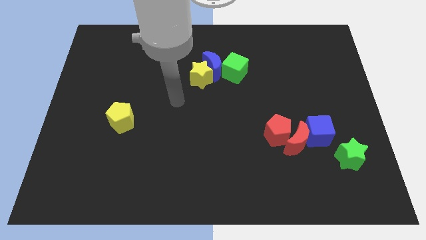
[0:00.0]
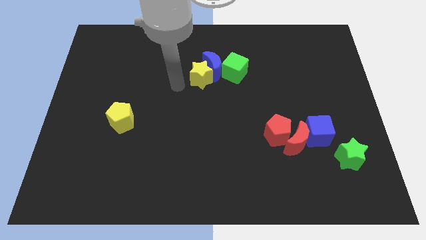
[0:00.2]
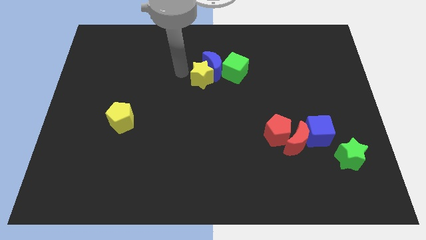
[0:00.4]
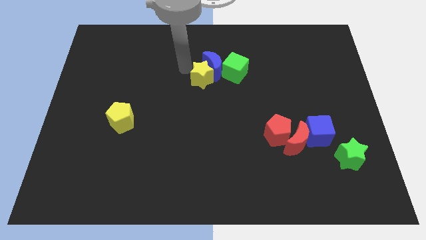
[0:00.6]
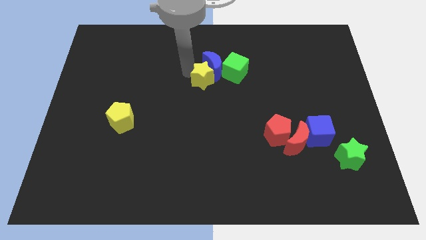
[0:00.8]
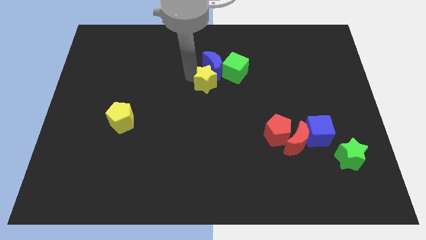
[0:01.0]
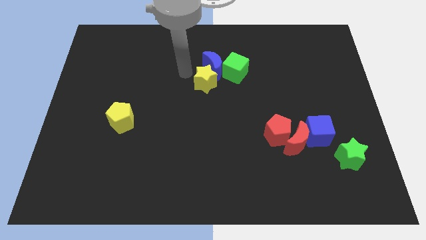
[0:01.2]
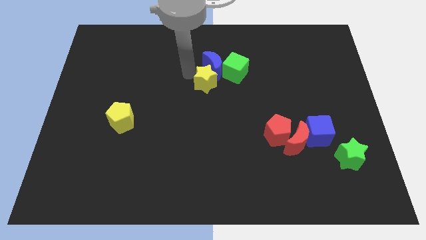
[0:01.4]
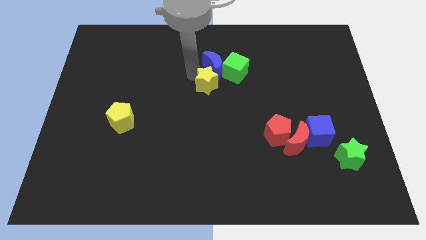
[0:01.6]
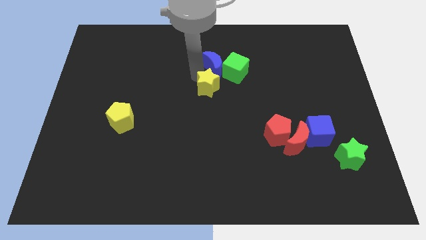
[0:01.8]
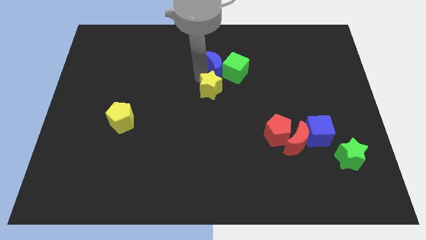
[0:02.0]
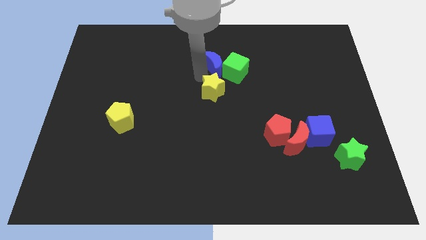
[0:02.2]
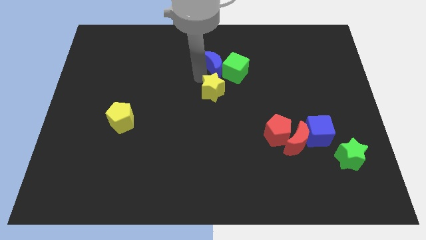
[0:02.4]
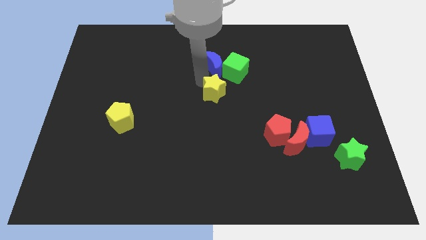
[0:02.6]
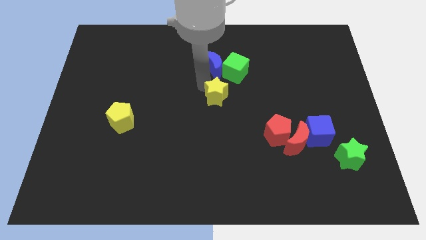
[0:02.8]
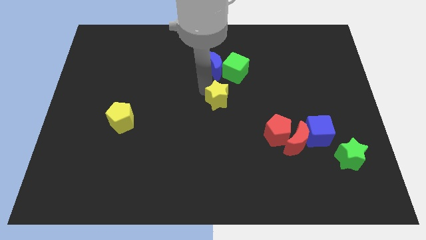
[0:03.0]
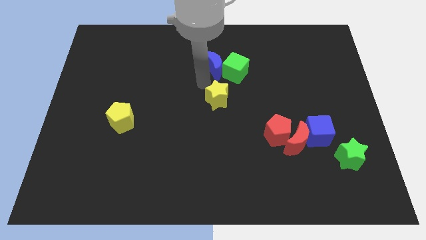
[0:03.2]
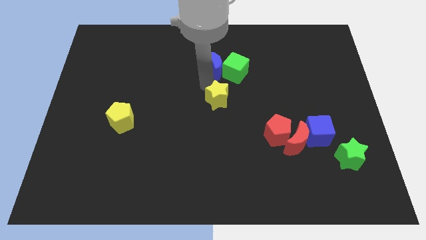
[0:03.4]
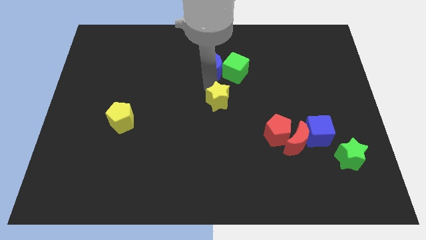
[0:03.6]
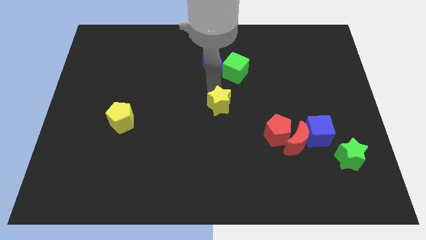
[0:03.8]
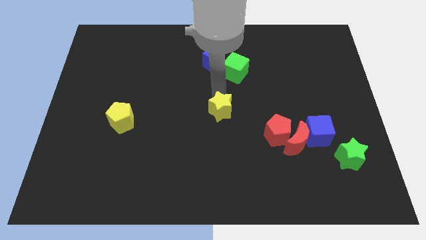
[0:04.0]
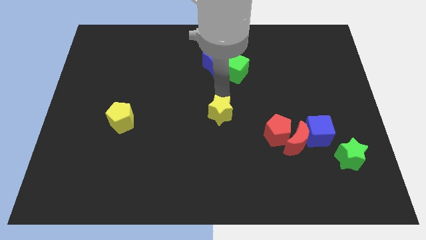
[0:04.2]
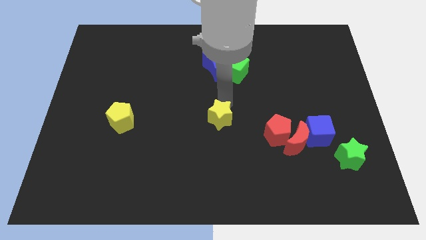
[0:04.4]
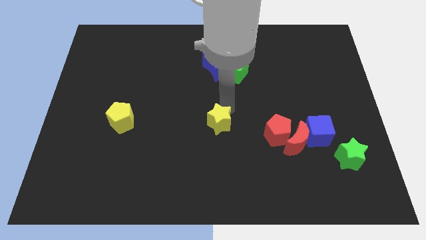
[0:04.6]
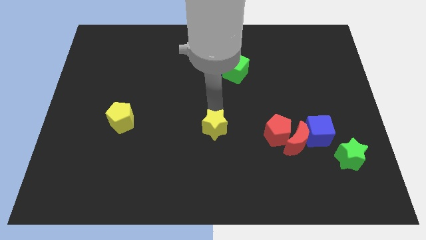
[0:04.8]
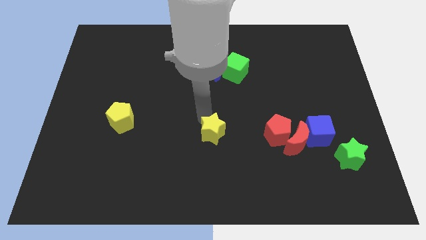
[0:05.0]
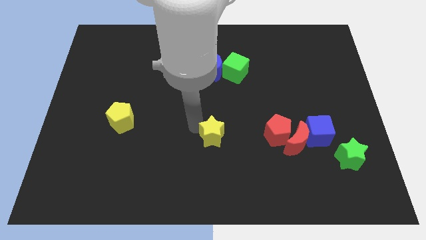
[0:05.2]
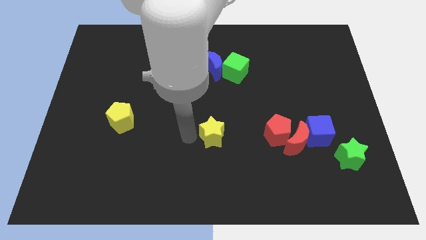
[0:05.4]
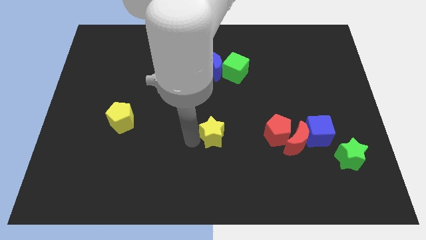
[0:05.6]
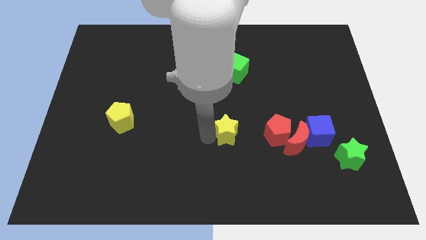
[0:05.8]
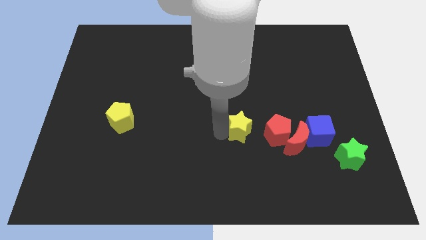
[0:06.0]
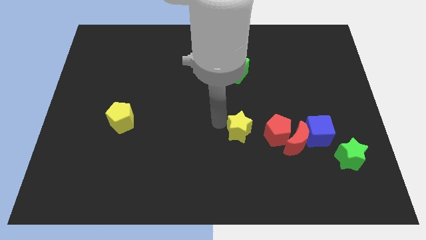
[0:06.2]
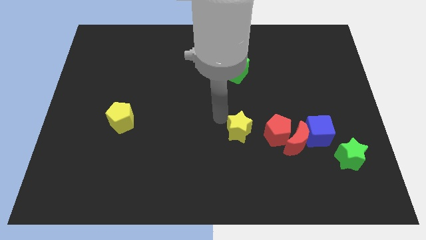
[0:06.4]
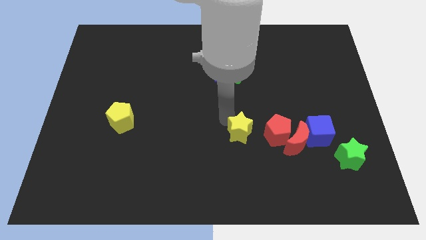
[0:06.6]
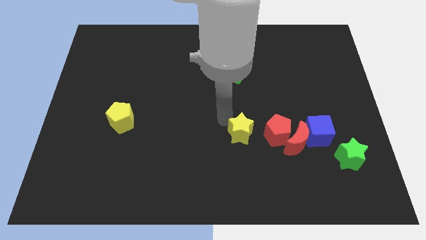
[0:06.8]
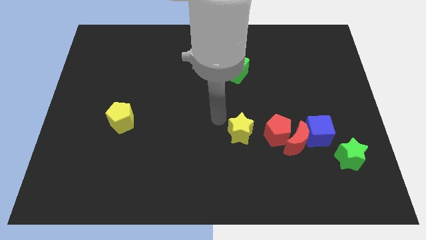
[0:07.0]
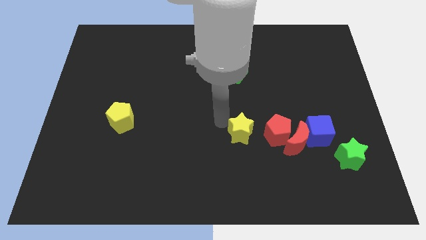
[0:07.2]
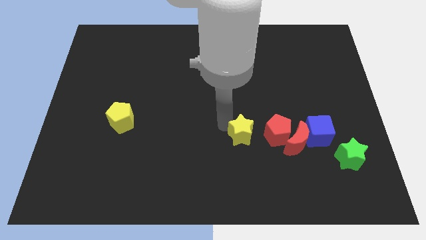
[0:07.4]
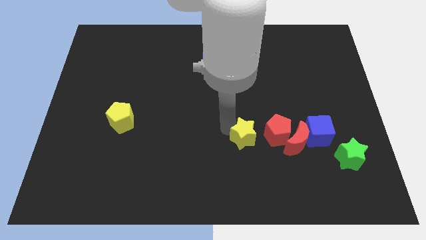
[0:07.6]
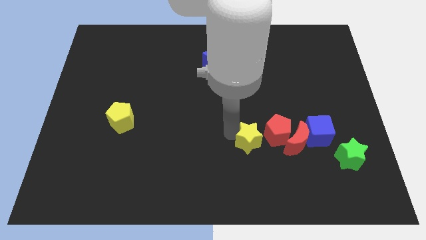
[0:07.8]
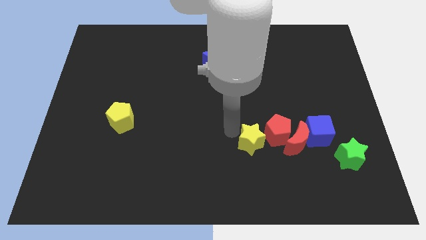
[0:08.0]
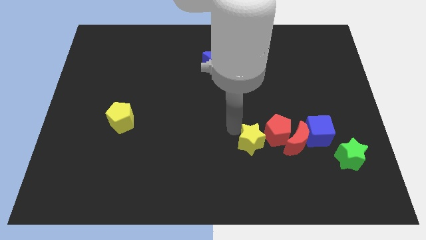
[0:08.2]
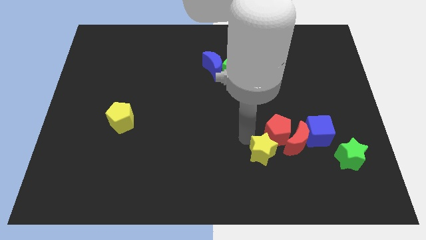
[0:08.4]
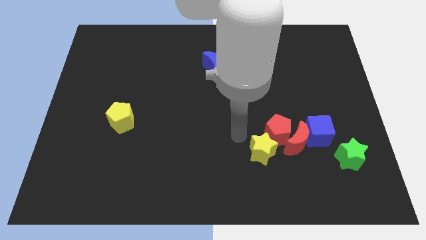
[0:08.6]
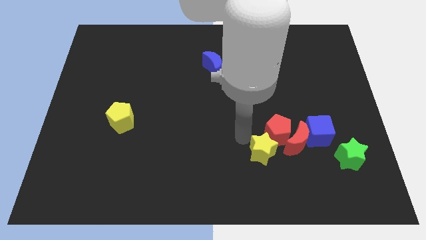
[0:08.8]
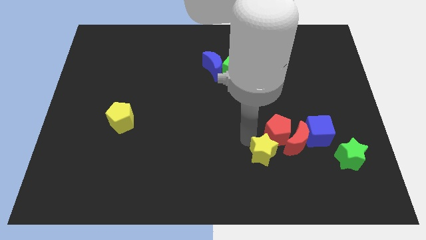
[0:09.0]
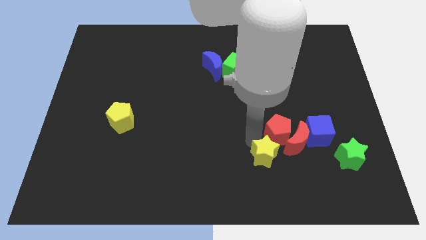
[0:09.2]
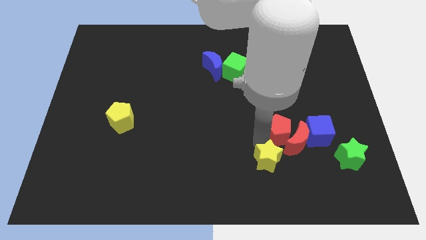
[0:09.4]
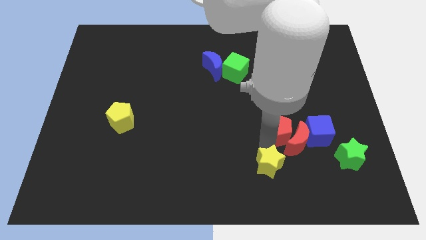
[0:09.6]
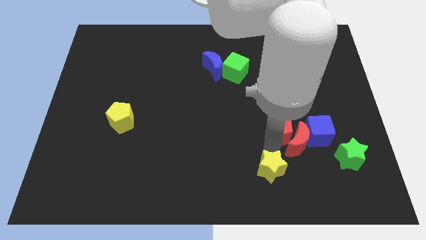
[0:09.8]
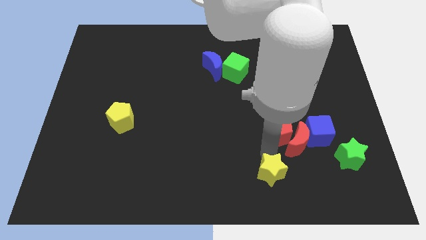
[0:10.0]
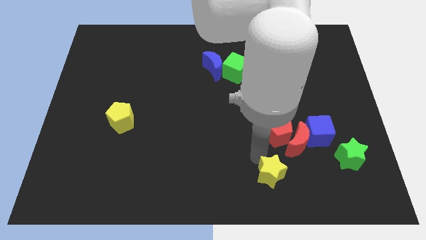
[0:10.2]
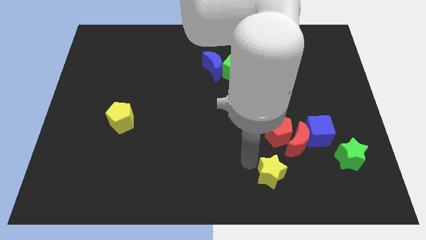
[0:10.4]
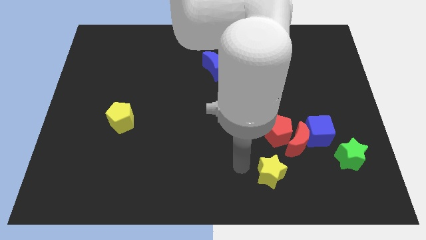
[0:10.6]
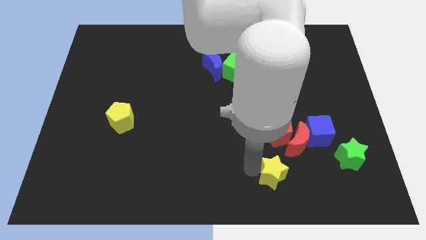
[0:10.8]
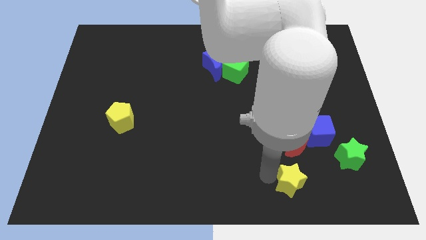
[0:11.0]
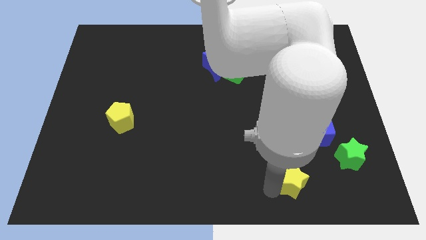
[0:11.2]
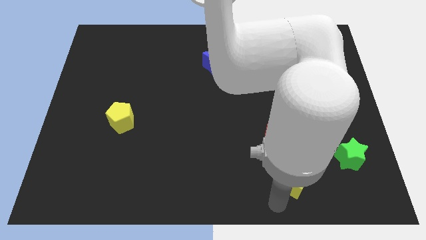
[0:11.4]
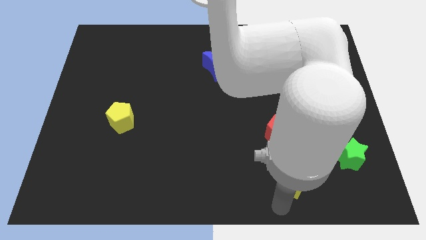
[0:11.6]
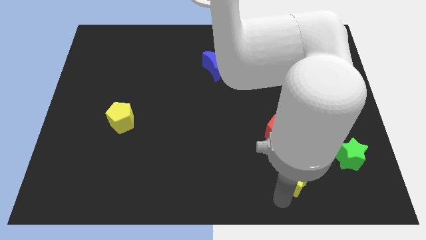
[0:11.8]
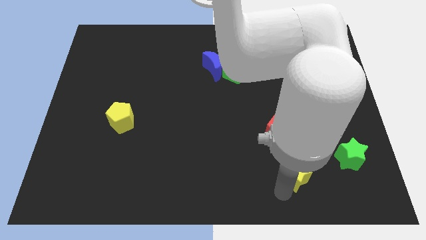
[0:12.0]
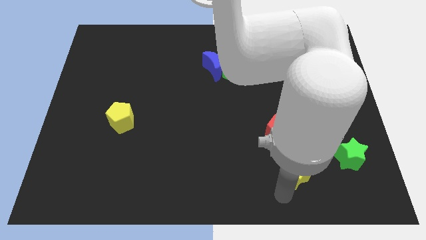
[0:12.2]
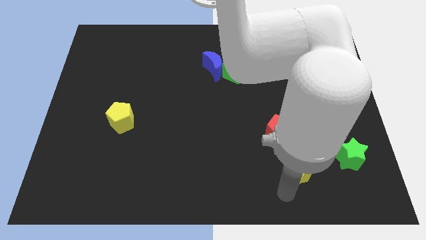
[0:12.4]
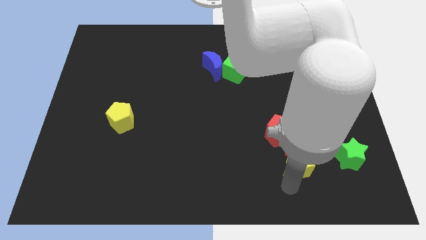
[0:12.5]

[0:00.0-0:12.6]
slide the yellow star to the bottom right side of the red pentagon
